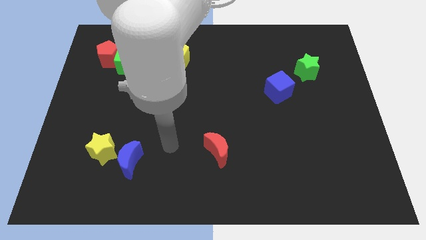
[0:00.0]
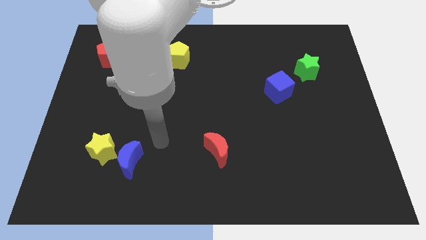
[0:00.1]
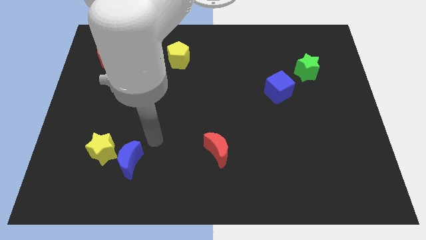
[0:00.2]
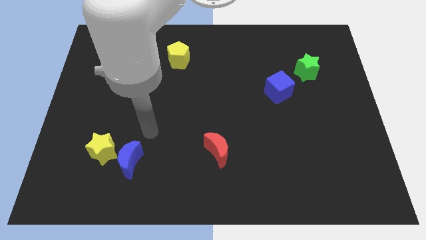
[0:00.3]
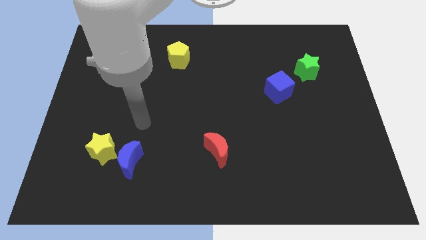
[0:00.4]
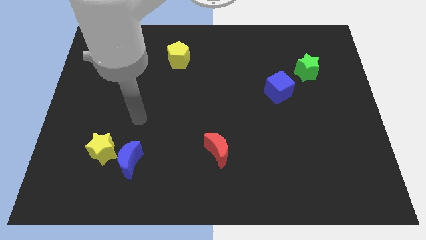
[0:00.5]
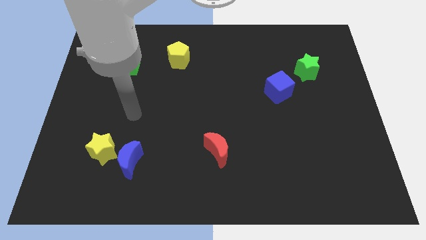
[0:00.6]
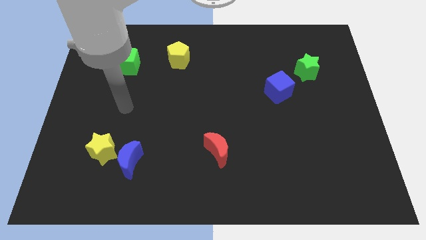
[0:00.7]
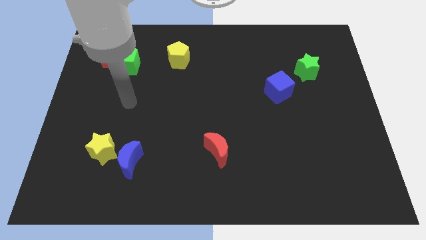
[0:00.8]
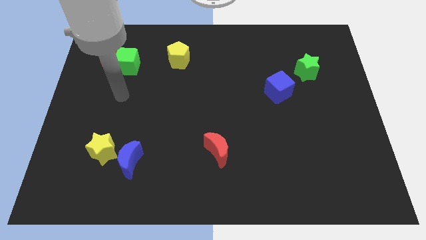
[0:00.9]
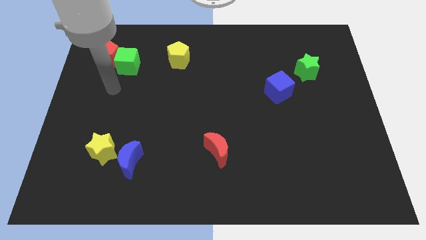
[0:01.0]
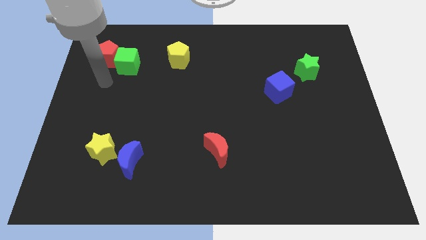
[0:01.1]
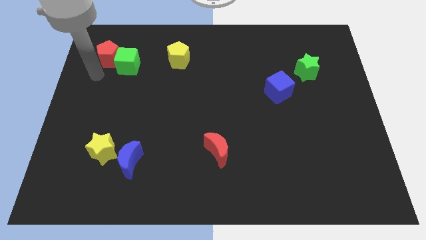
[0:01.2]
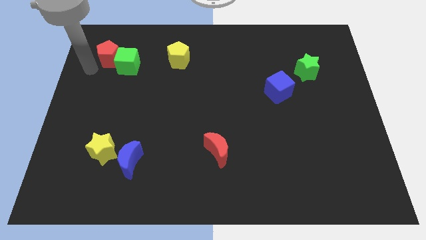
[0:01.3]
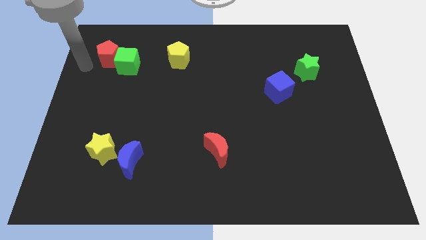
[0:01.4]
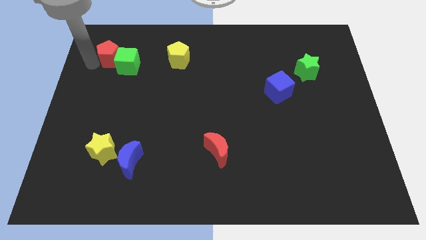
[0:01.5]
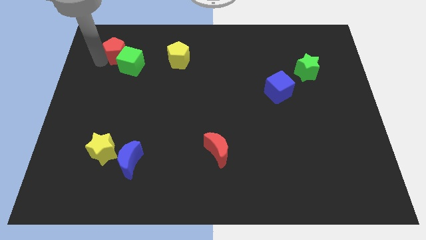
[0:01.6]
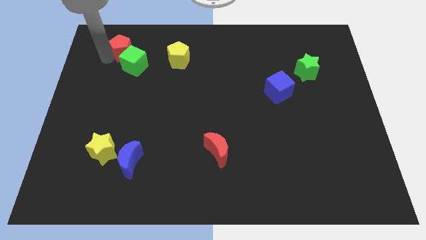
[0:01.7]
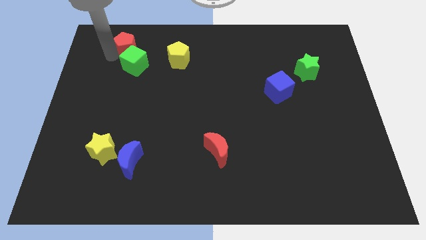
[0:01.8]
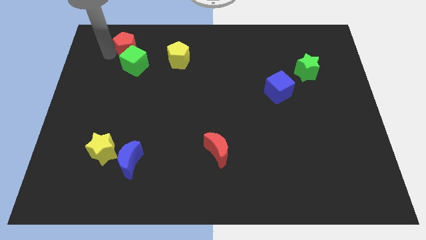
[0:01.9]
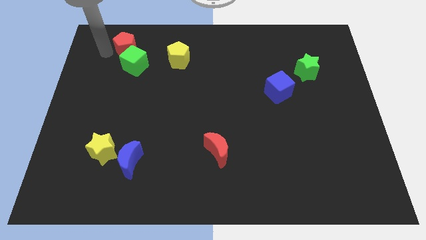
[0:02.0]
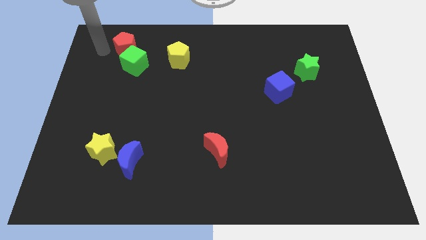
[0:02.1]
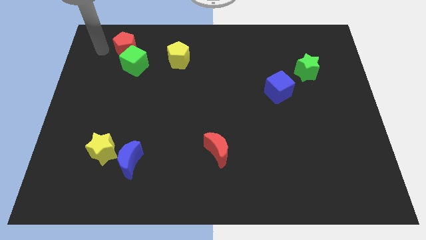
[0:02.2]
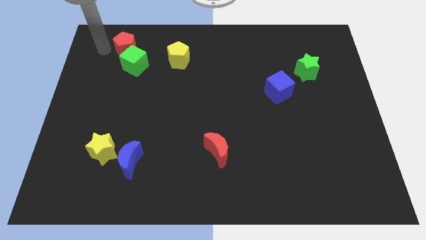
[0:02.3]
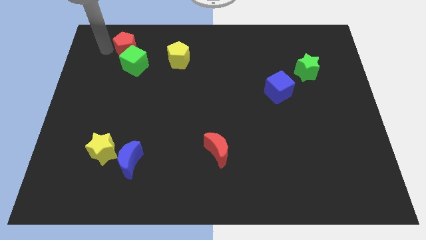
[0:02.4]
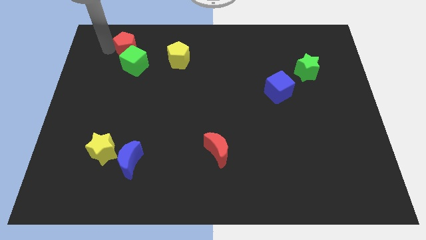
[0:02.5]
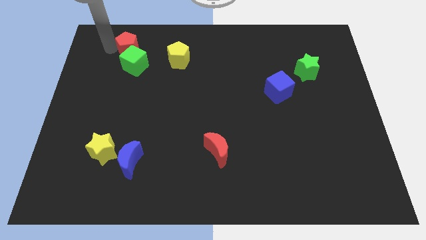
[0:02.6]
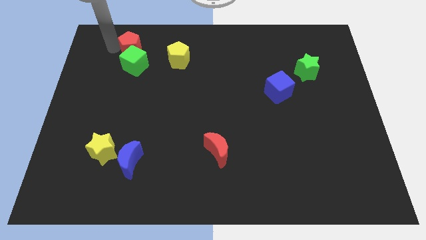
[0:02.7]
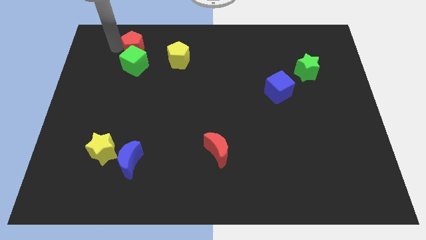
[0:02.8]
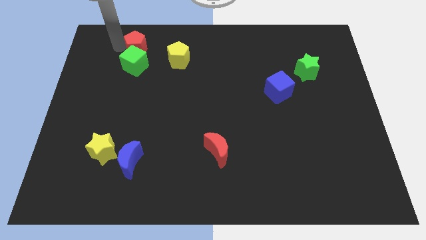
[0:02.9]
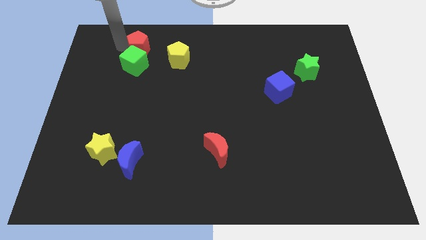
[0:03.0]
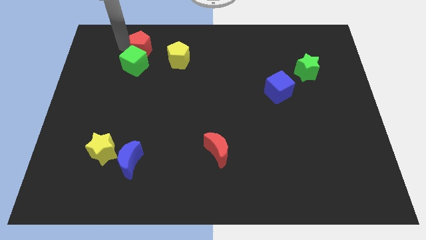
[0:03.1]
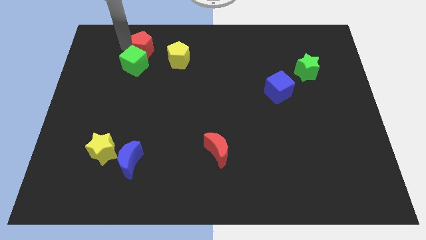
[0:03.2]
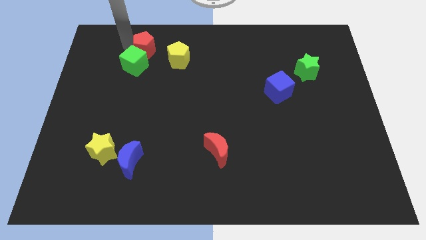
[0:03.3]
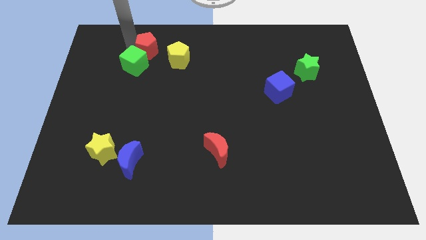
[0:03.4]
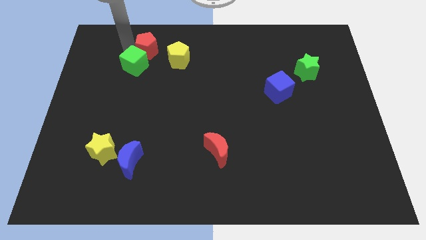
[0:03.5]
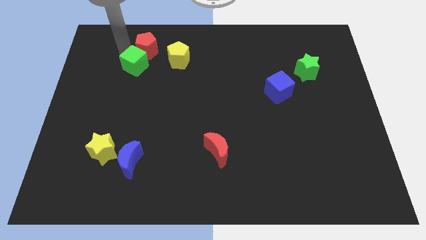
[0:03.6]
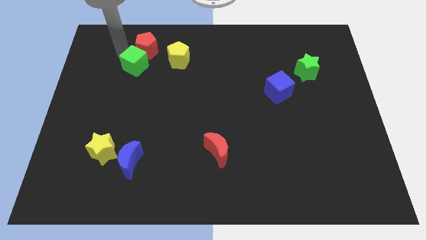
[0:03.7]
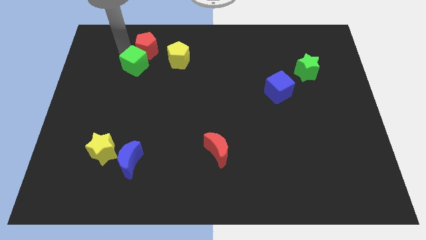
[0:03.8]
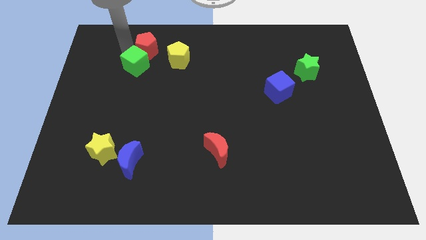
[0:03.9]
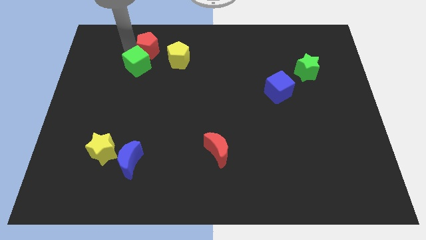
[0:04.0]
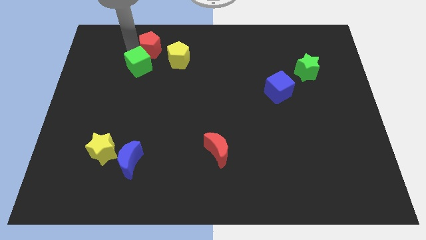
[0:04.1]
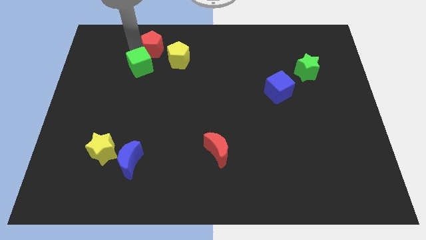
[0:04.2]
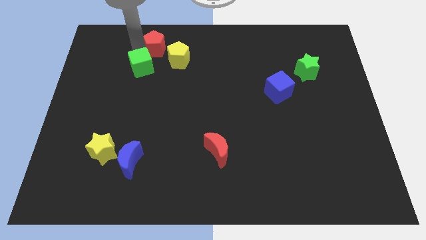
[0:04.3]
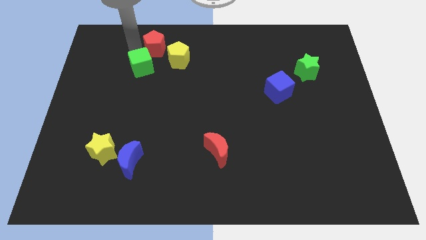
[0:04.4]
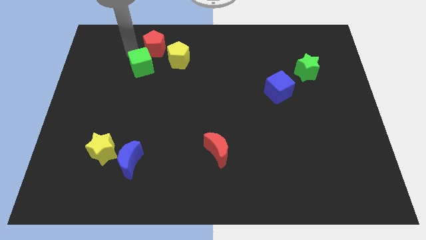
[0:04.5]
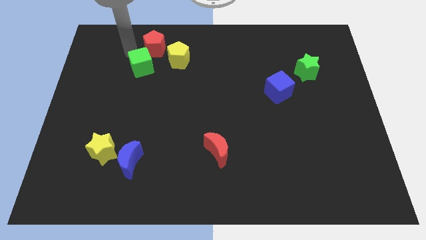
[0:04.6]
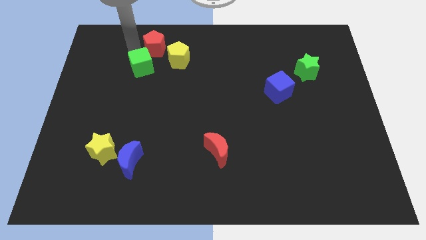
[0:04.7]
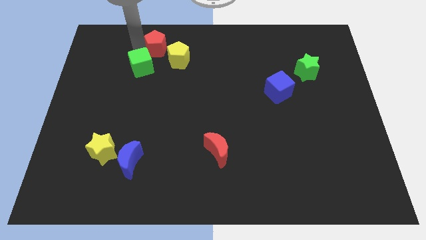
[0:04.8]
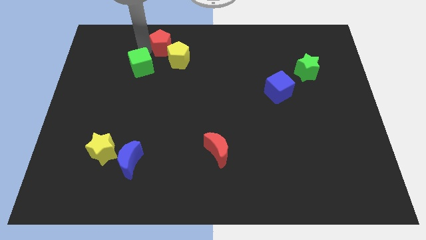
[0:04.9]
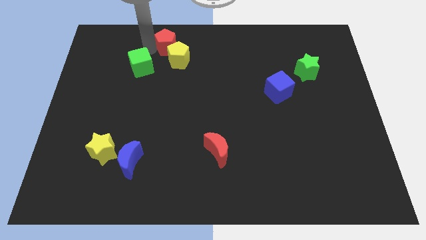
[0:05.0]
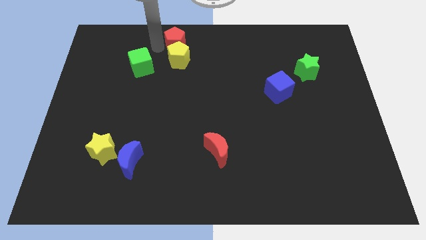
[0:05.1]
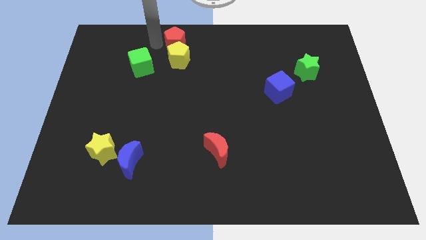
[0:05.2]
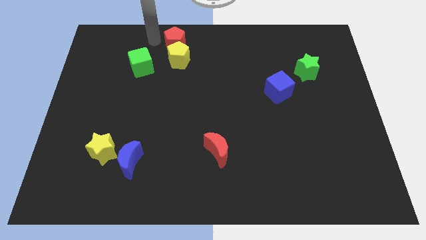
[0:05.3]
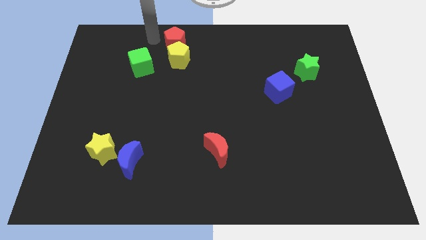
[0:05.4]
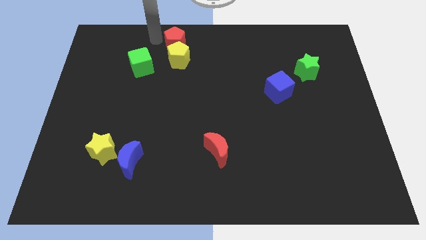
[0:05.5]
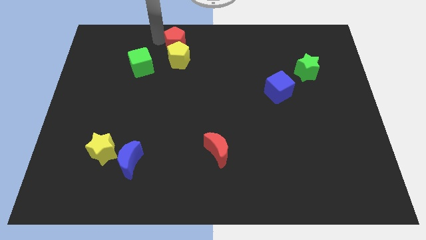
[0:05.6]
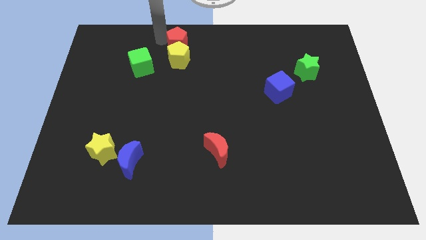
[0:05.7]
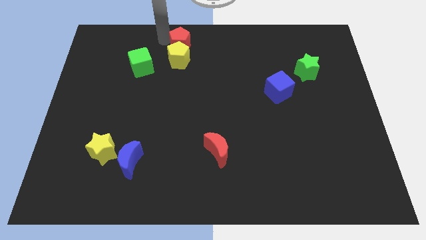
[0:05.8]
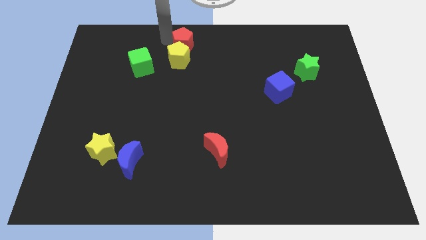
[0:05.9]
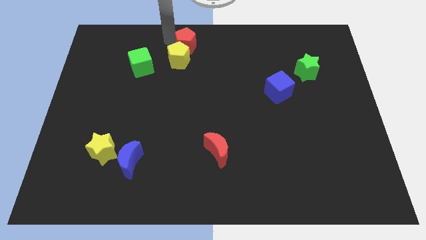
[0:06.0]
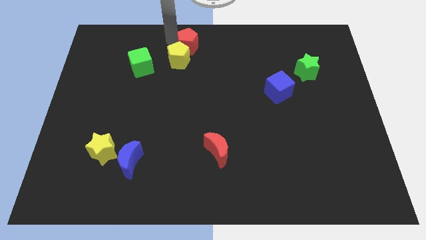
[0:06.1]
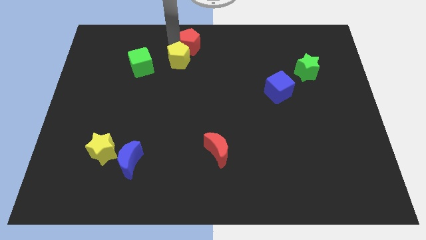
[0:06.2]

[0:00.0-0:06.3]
push the red pentagon to the right

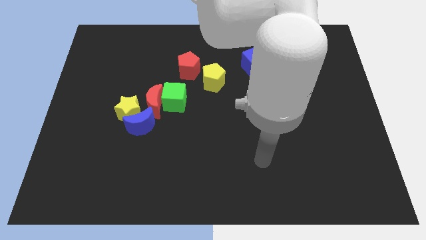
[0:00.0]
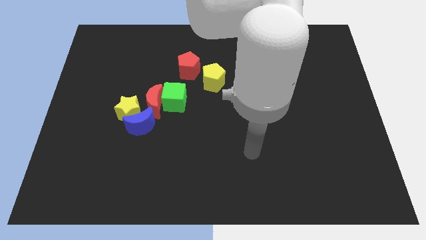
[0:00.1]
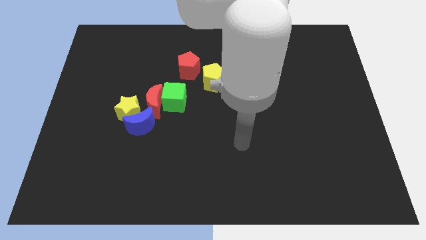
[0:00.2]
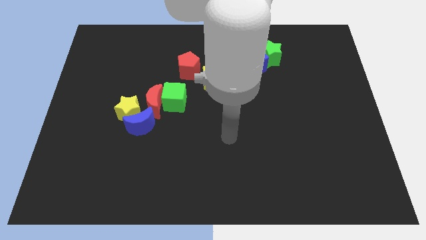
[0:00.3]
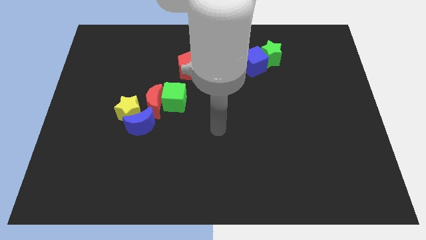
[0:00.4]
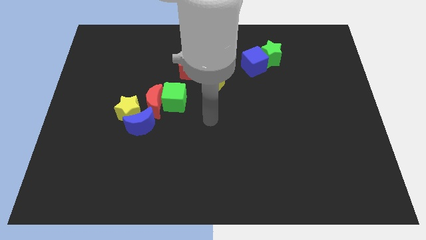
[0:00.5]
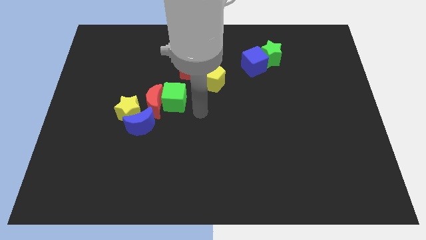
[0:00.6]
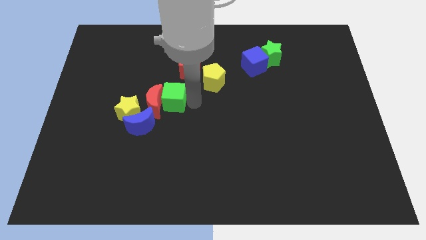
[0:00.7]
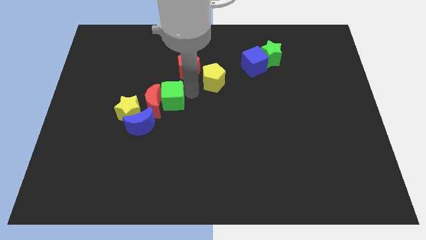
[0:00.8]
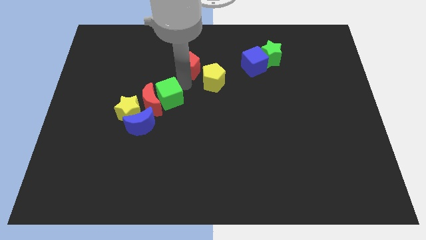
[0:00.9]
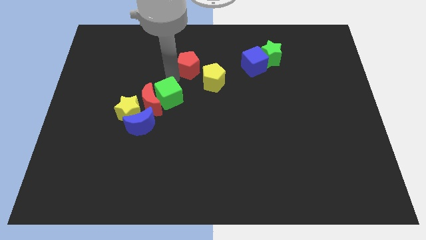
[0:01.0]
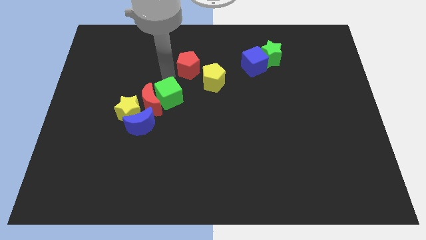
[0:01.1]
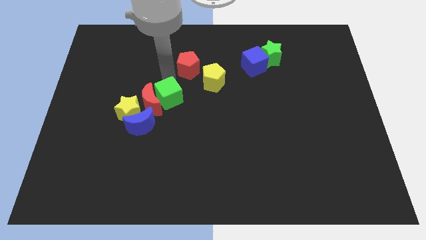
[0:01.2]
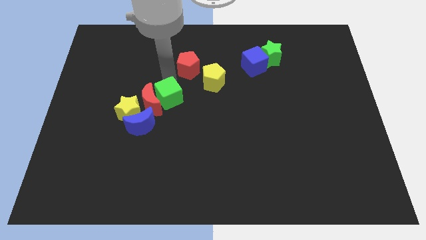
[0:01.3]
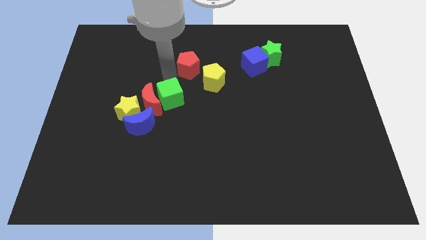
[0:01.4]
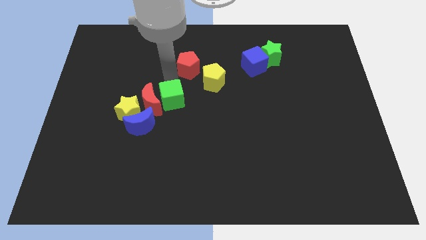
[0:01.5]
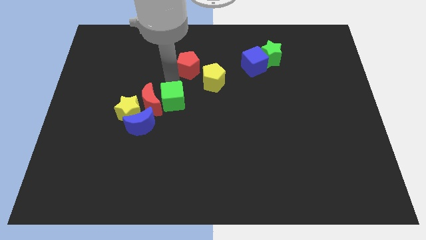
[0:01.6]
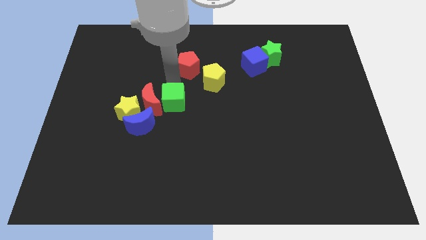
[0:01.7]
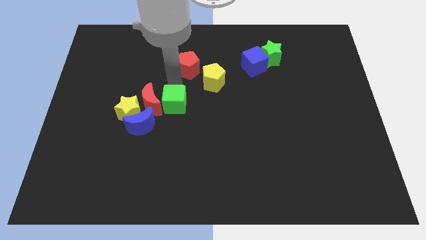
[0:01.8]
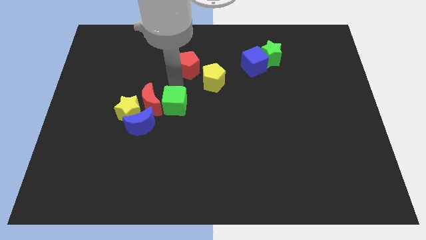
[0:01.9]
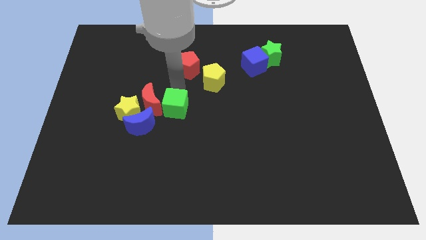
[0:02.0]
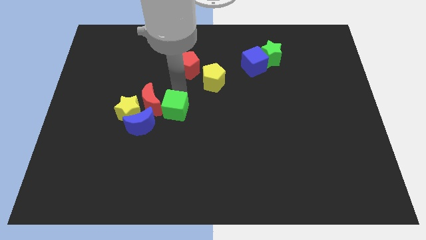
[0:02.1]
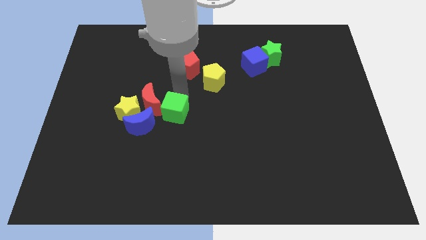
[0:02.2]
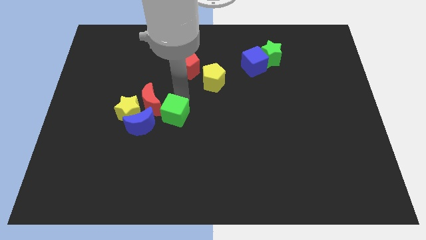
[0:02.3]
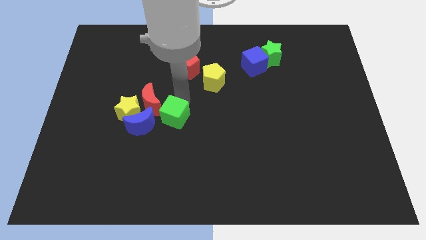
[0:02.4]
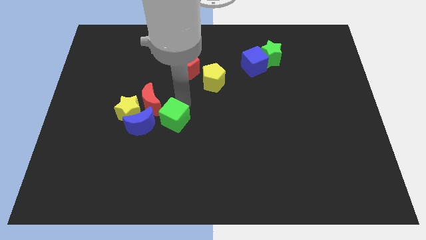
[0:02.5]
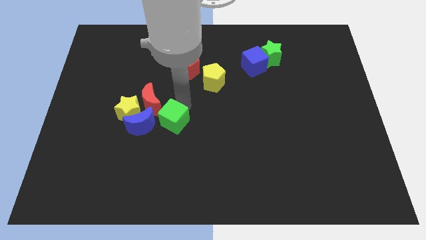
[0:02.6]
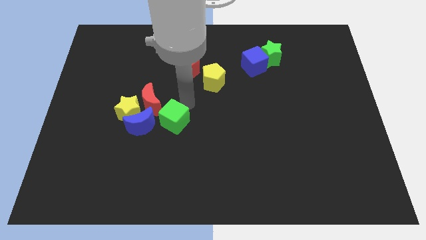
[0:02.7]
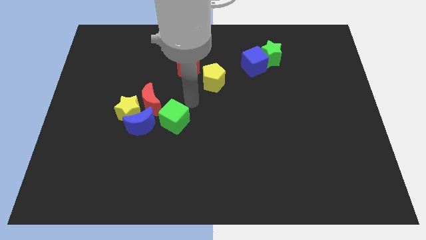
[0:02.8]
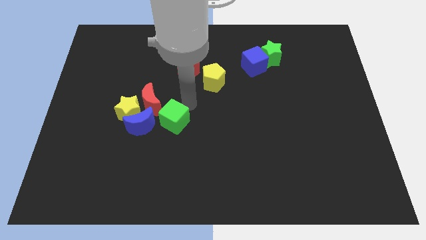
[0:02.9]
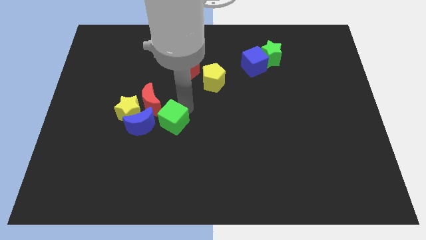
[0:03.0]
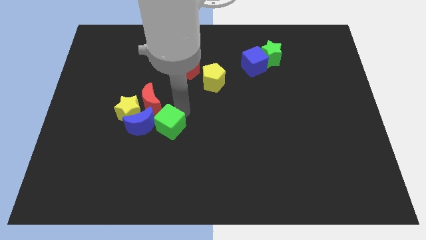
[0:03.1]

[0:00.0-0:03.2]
slightly push the green cube down
